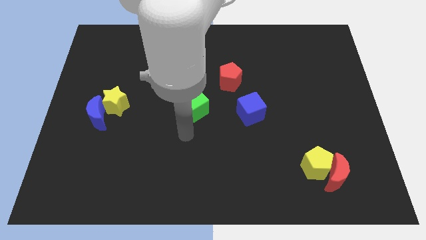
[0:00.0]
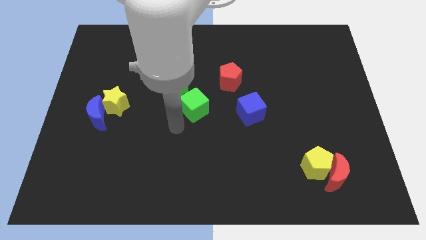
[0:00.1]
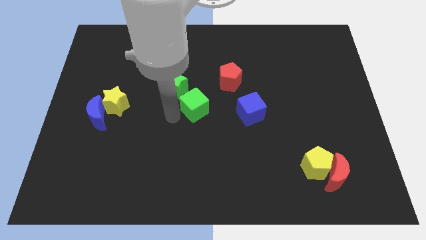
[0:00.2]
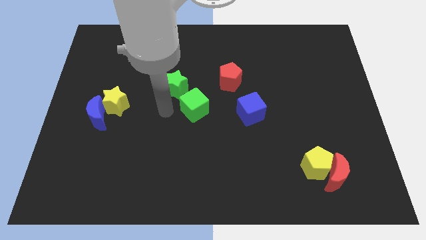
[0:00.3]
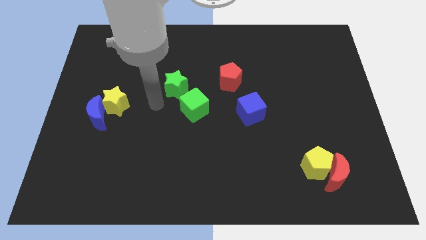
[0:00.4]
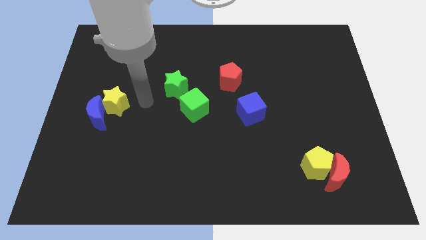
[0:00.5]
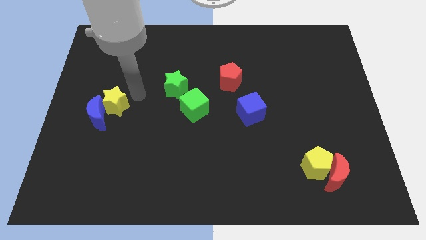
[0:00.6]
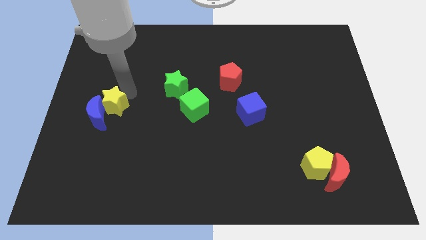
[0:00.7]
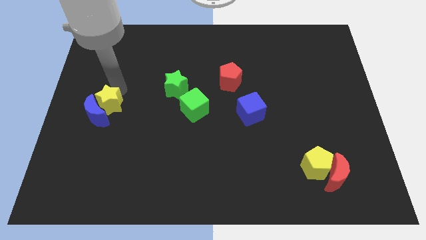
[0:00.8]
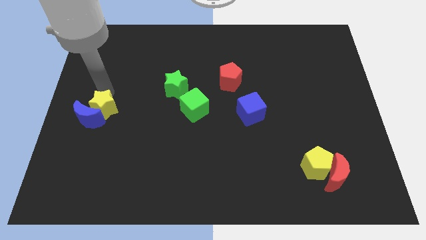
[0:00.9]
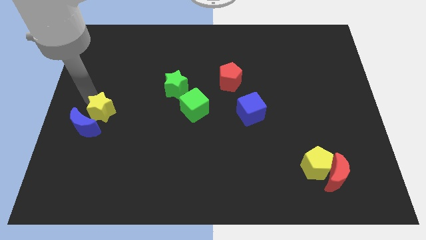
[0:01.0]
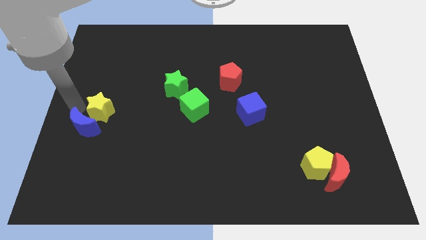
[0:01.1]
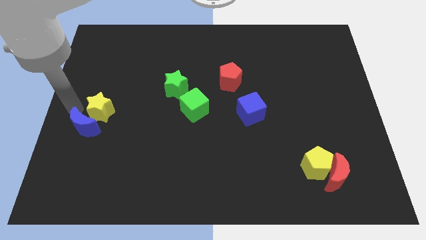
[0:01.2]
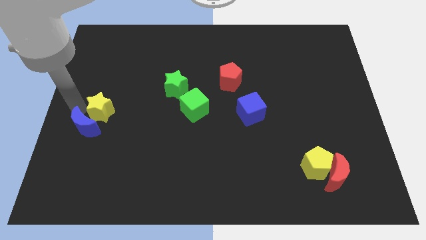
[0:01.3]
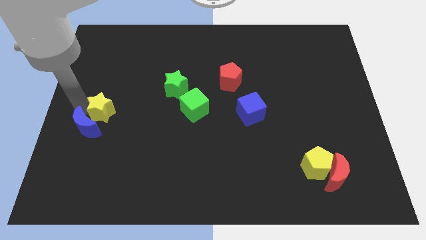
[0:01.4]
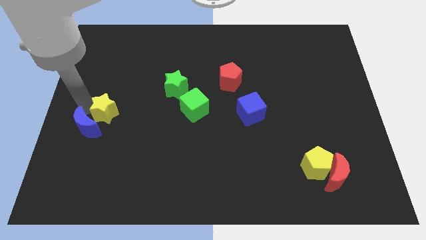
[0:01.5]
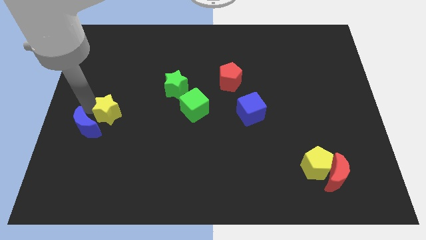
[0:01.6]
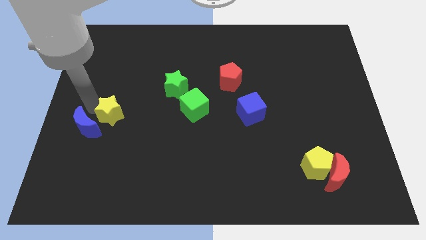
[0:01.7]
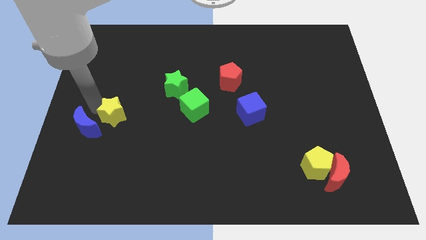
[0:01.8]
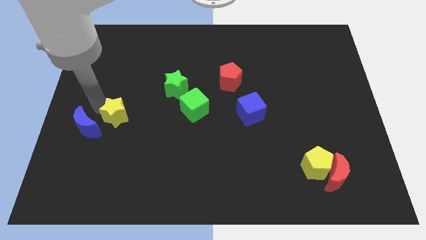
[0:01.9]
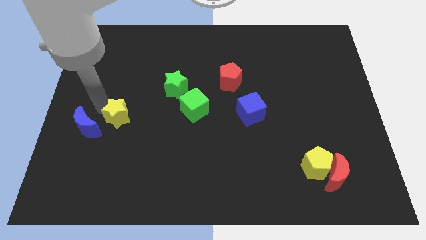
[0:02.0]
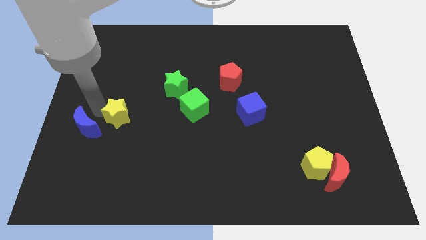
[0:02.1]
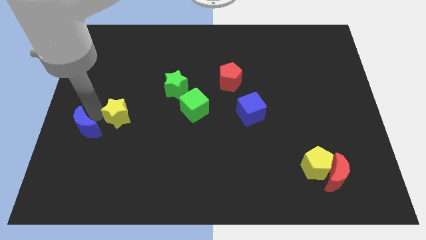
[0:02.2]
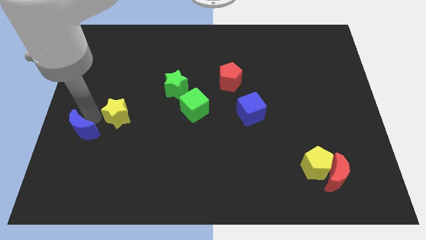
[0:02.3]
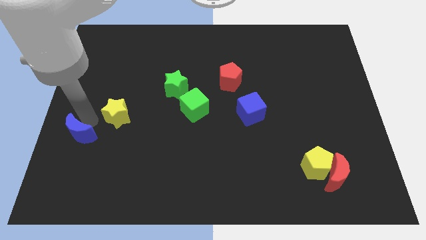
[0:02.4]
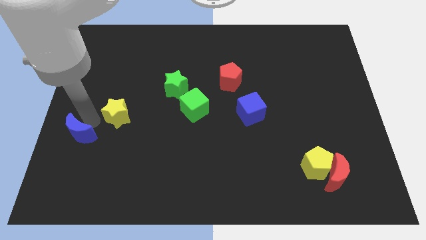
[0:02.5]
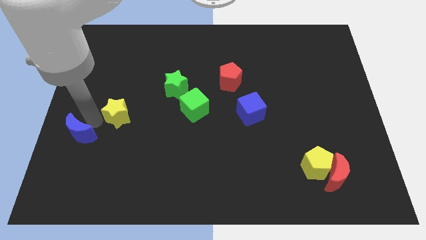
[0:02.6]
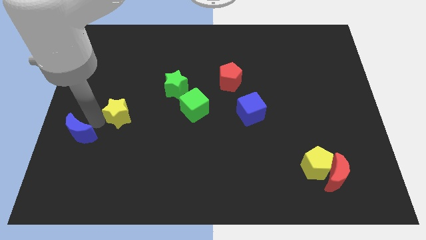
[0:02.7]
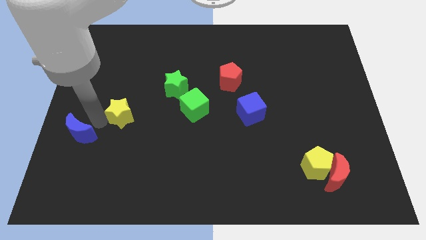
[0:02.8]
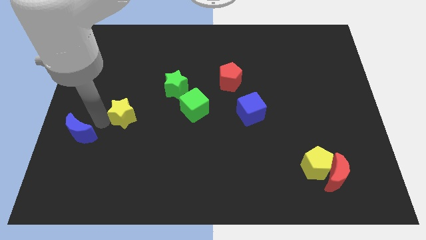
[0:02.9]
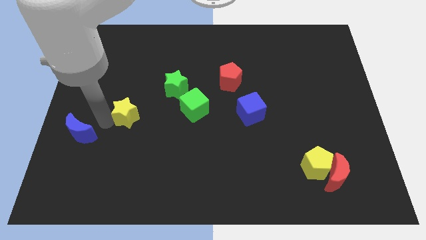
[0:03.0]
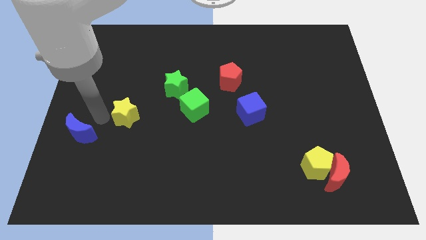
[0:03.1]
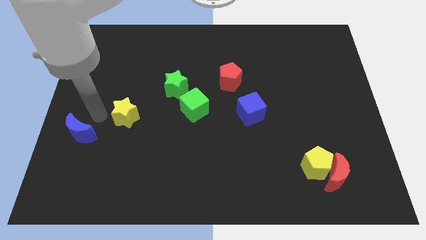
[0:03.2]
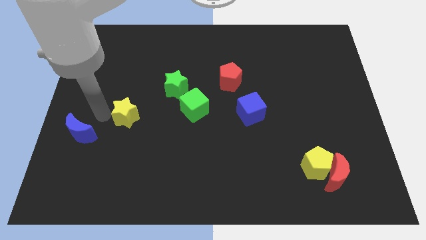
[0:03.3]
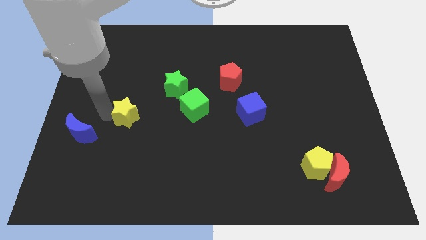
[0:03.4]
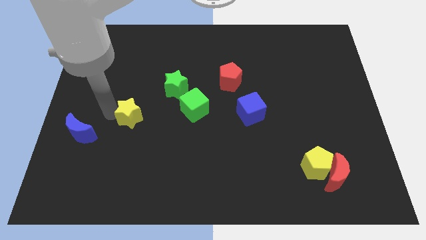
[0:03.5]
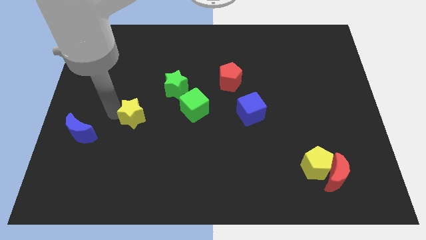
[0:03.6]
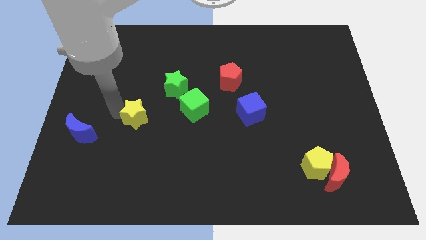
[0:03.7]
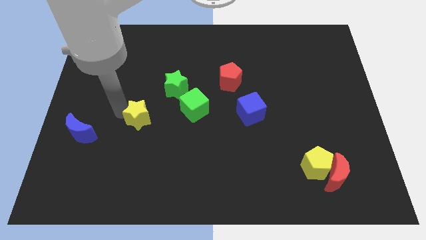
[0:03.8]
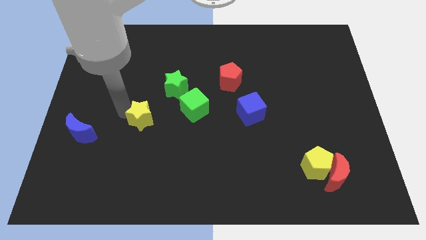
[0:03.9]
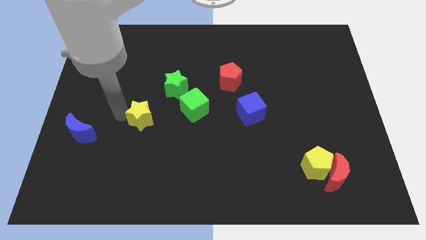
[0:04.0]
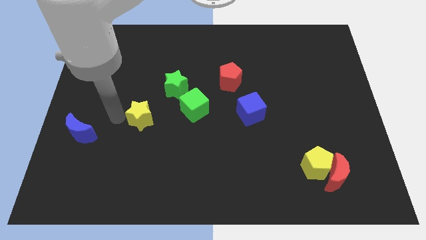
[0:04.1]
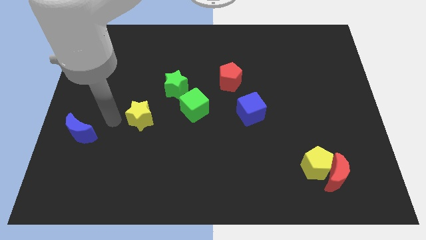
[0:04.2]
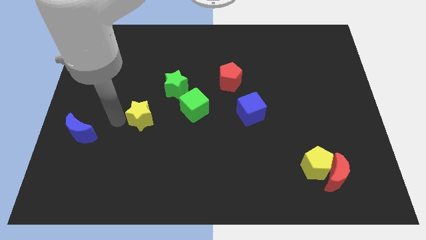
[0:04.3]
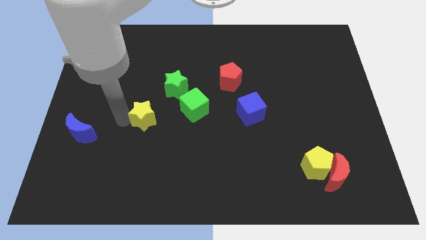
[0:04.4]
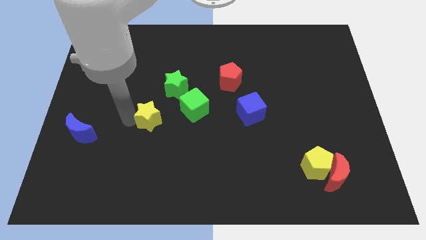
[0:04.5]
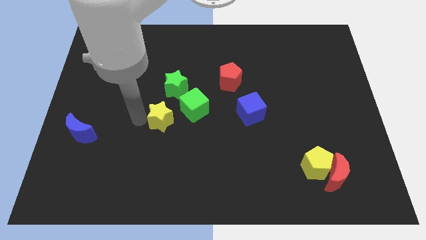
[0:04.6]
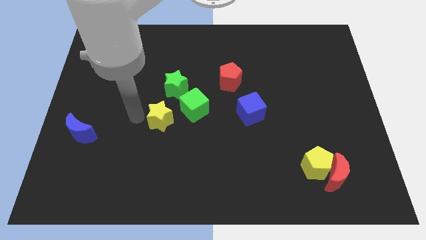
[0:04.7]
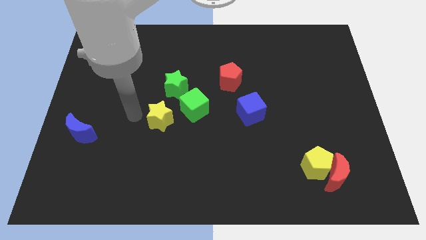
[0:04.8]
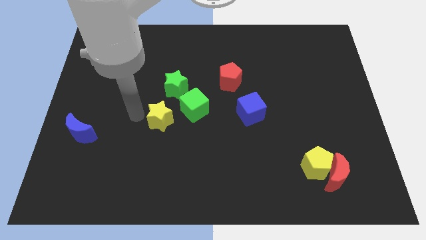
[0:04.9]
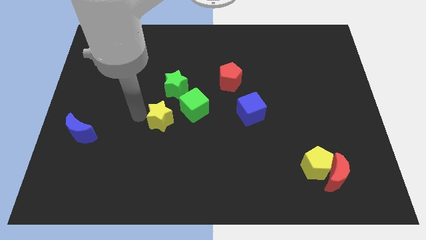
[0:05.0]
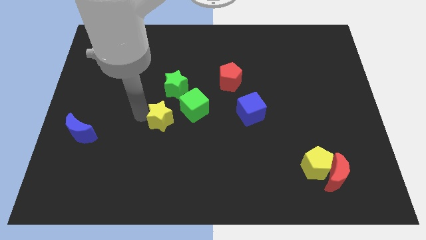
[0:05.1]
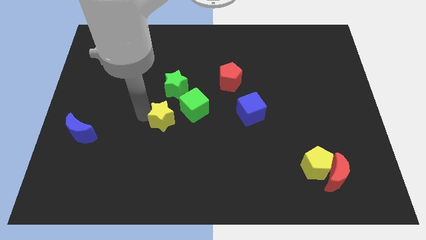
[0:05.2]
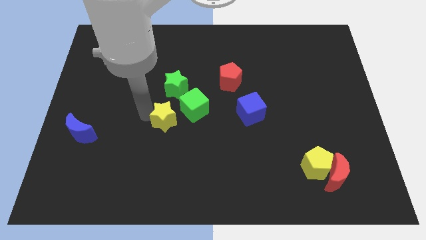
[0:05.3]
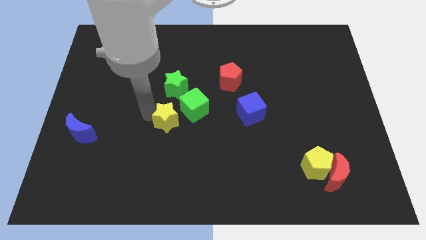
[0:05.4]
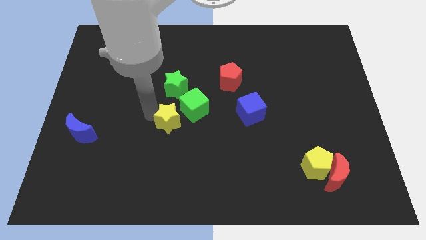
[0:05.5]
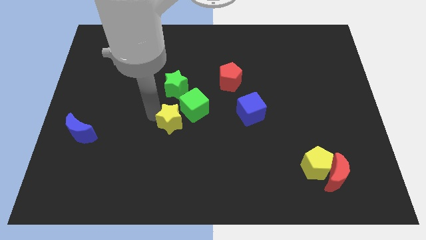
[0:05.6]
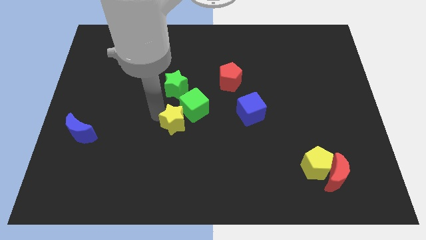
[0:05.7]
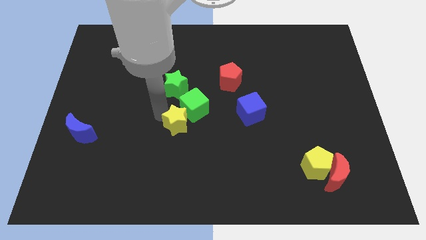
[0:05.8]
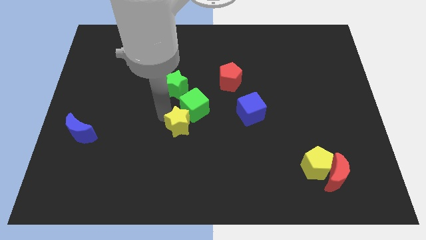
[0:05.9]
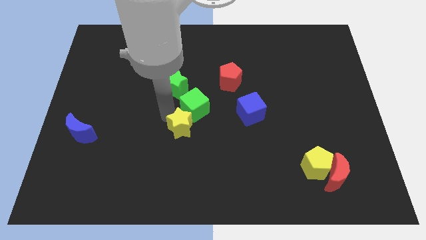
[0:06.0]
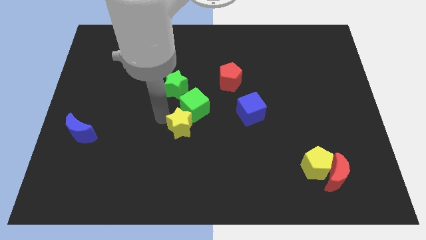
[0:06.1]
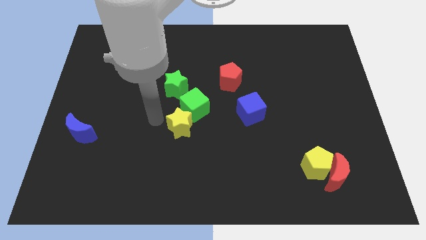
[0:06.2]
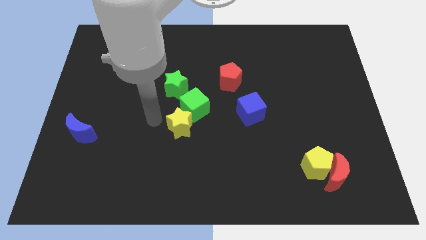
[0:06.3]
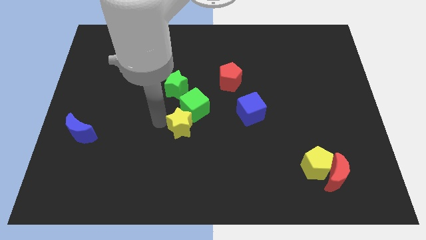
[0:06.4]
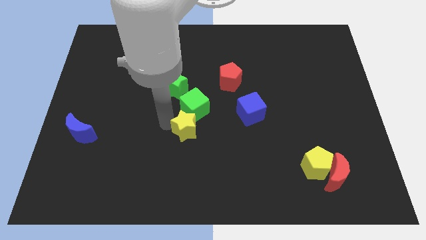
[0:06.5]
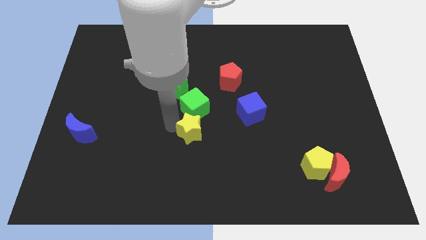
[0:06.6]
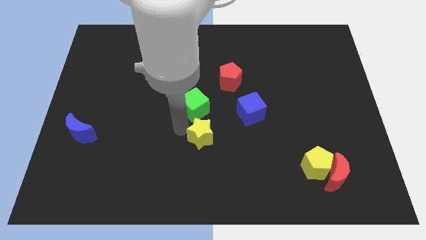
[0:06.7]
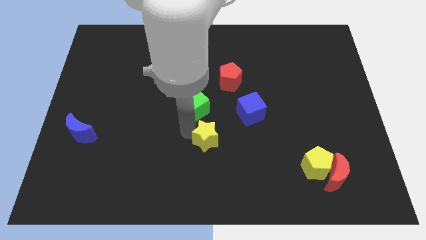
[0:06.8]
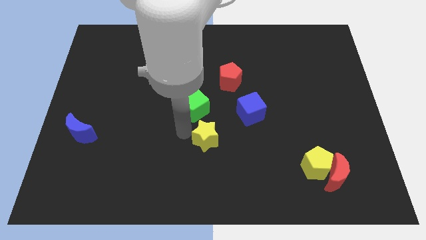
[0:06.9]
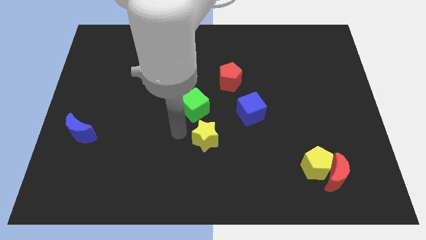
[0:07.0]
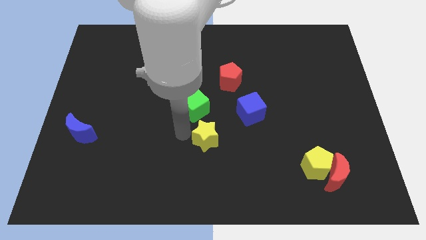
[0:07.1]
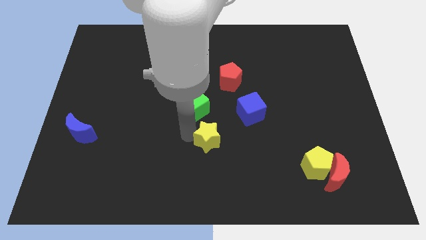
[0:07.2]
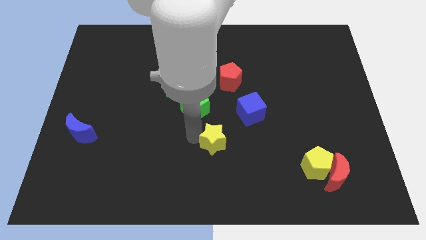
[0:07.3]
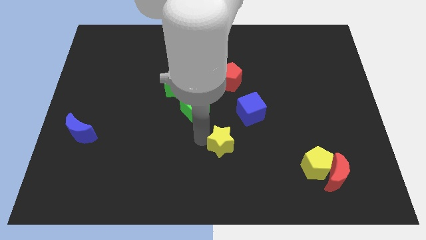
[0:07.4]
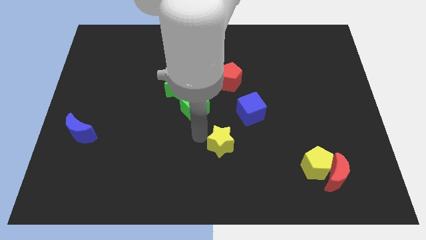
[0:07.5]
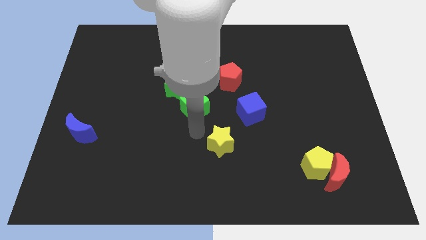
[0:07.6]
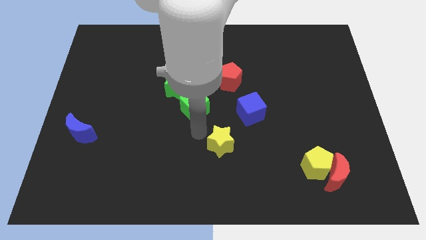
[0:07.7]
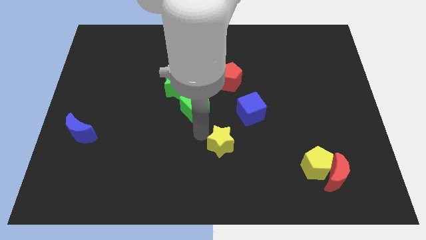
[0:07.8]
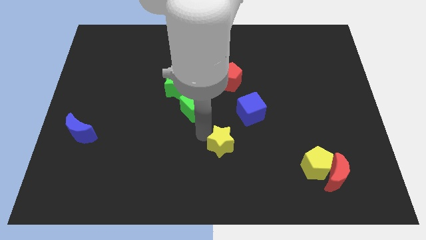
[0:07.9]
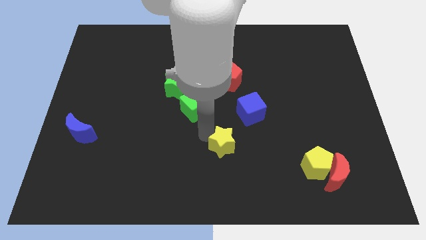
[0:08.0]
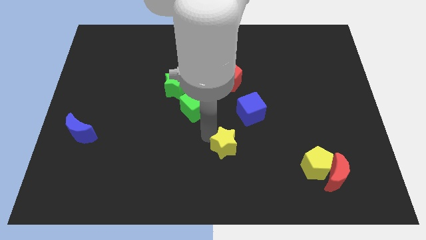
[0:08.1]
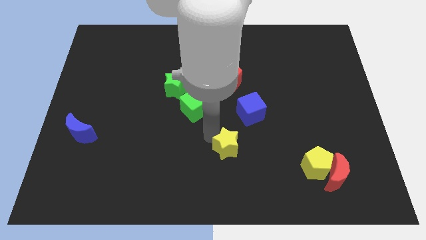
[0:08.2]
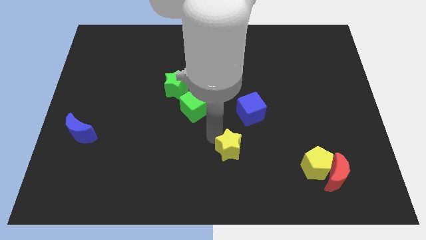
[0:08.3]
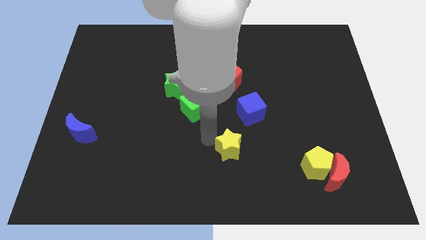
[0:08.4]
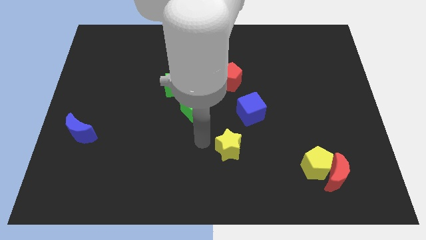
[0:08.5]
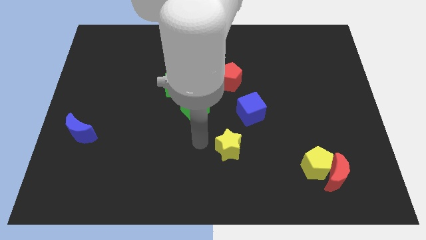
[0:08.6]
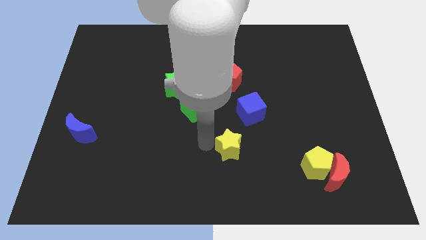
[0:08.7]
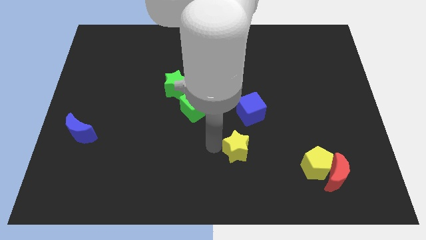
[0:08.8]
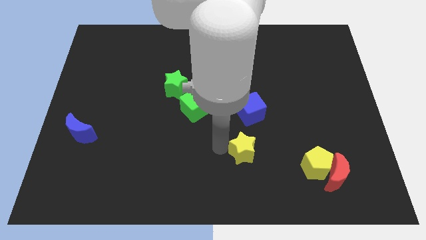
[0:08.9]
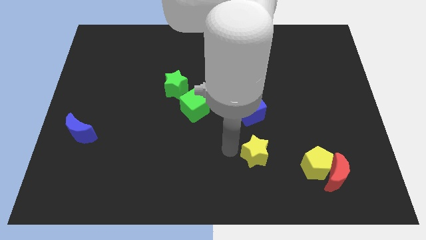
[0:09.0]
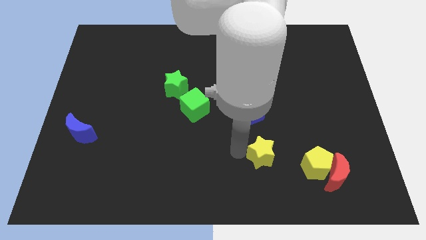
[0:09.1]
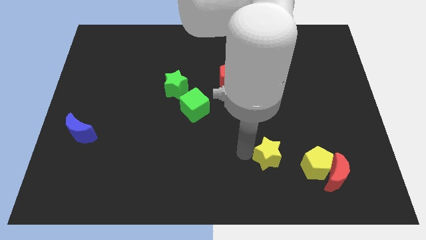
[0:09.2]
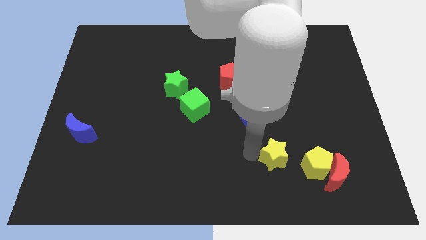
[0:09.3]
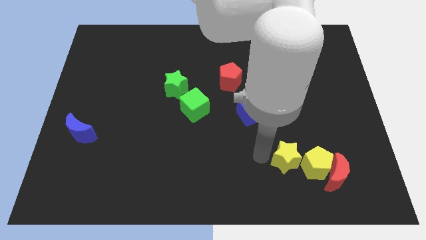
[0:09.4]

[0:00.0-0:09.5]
move the yellow star to the yellow pentagon
